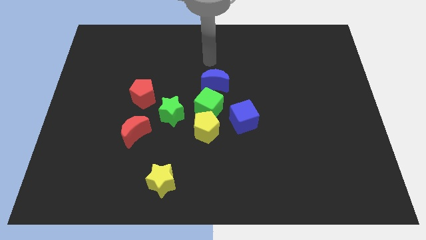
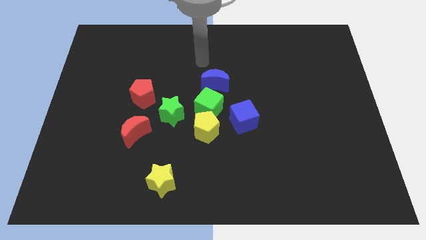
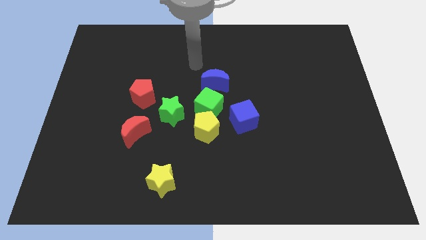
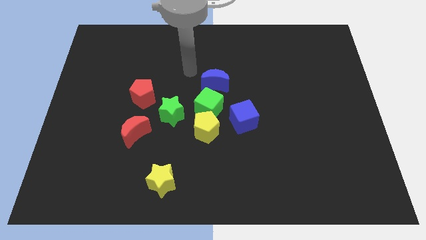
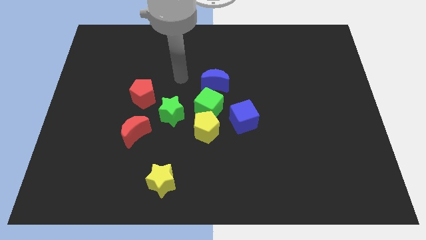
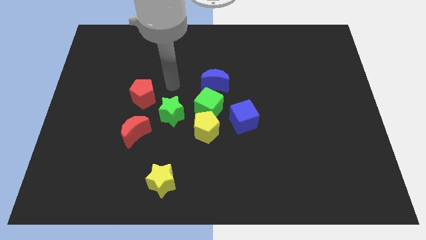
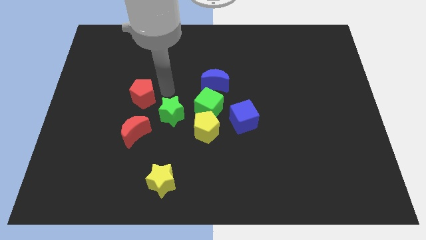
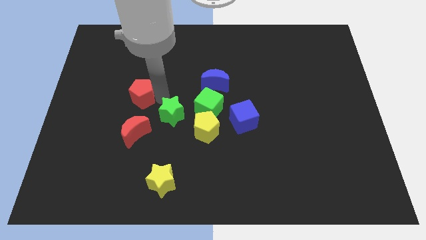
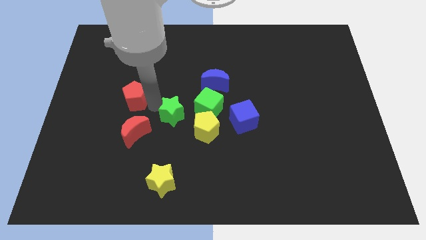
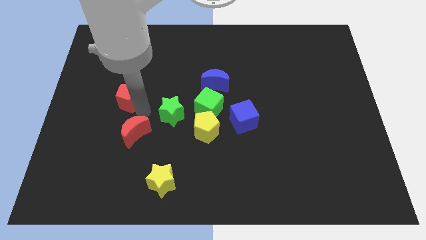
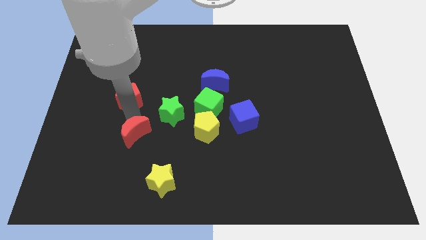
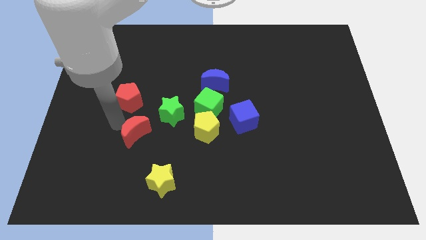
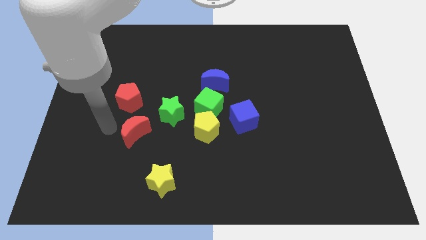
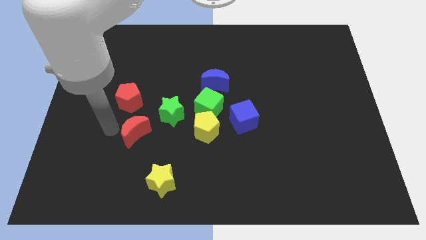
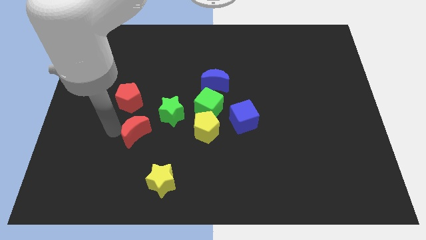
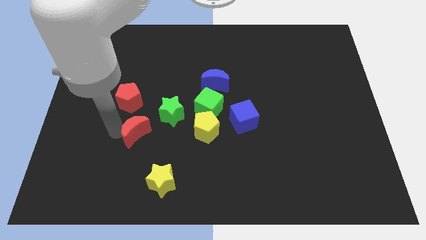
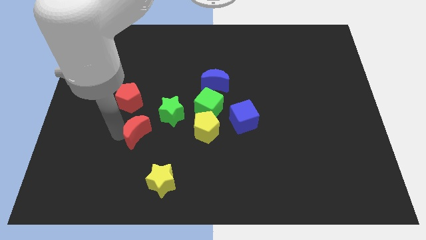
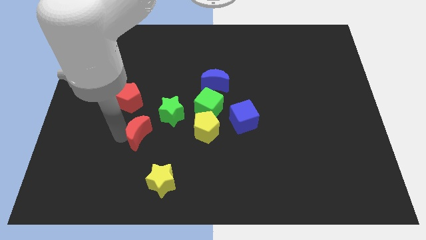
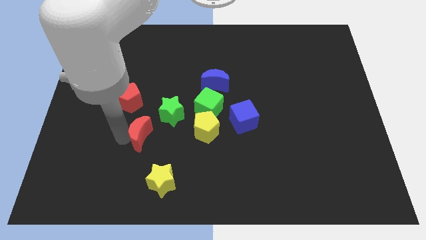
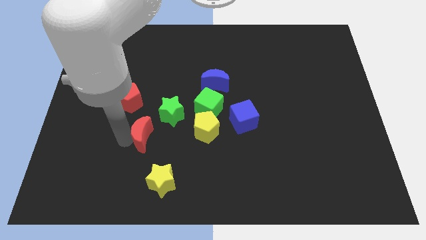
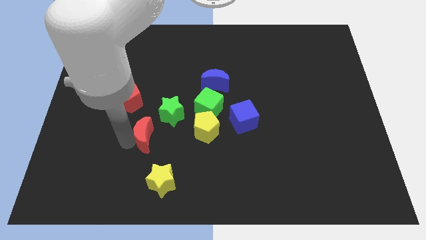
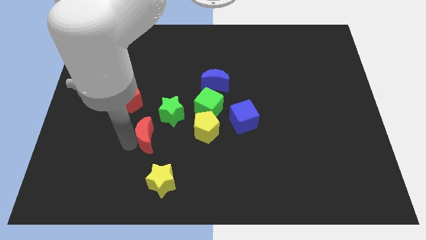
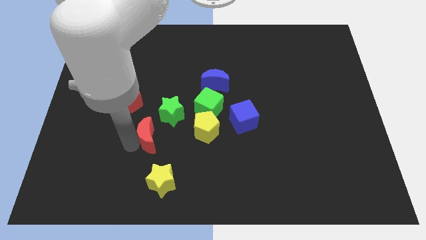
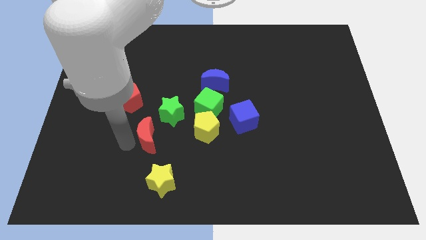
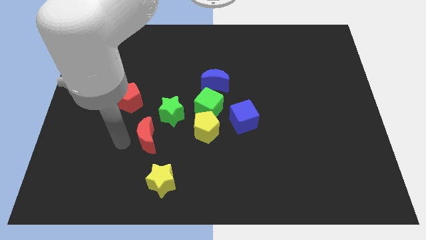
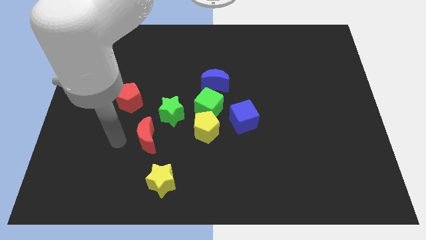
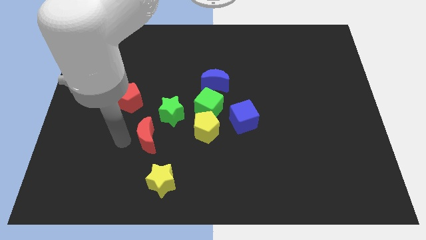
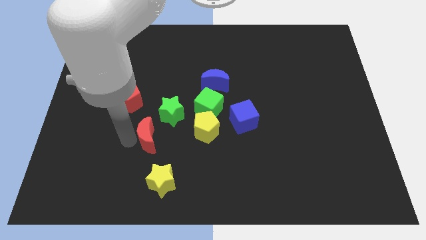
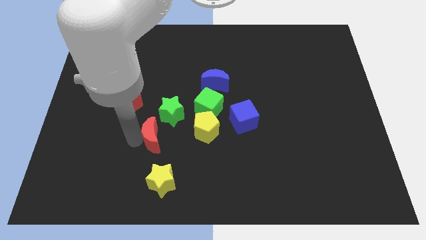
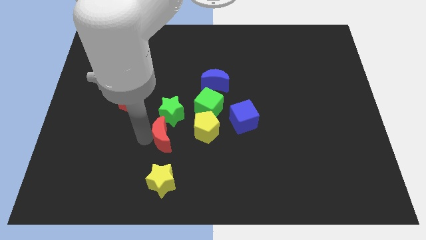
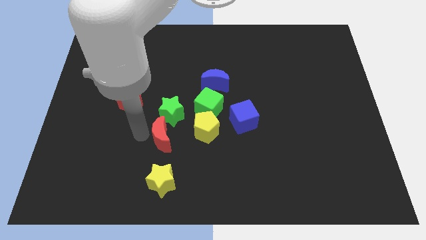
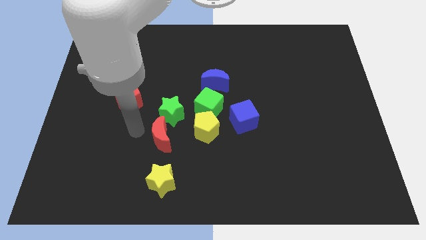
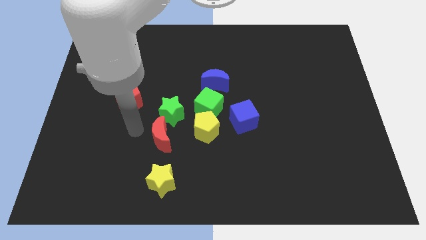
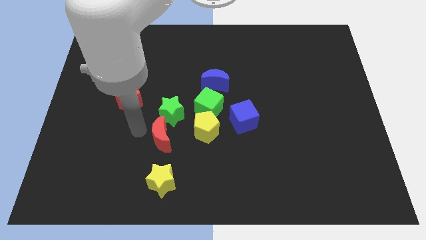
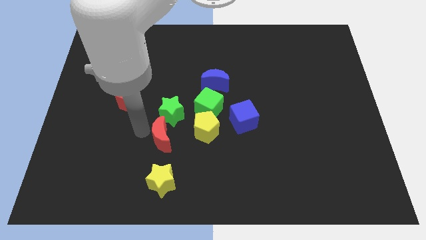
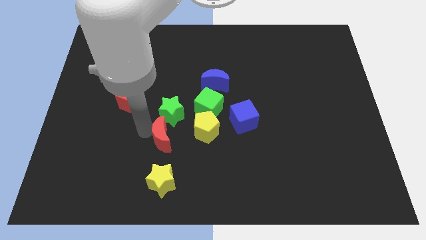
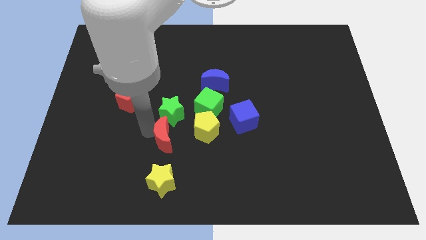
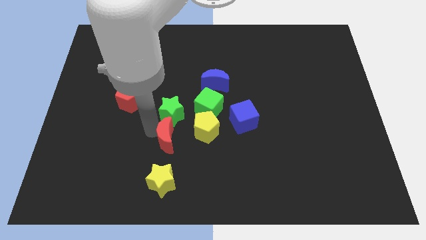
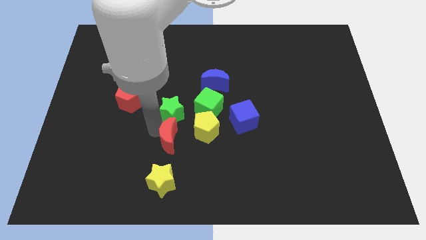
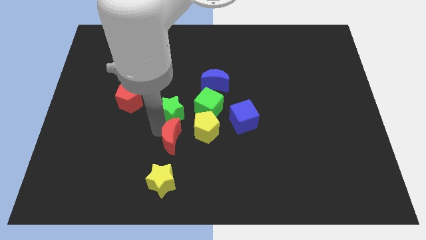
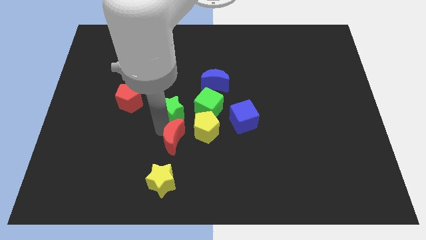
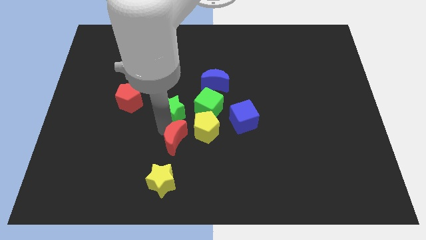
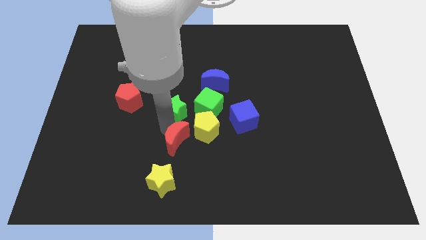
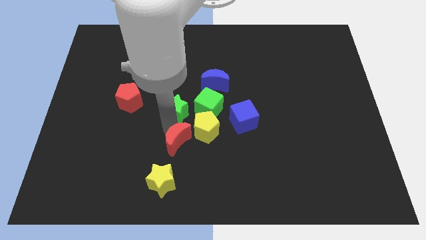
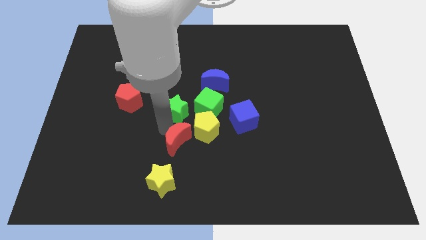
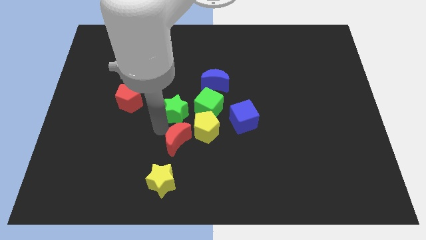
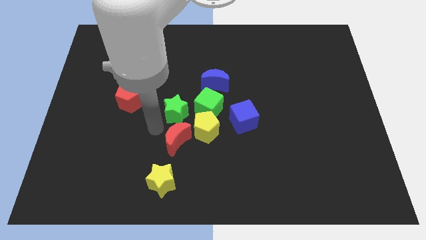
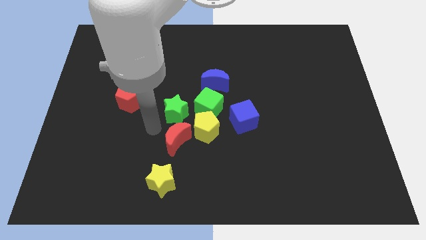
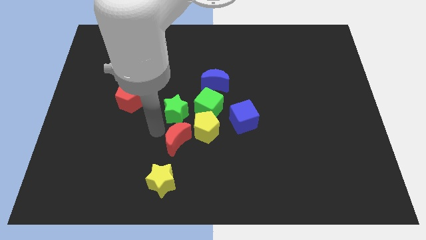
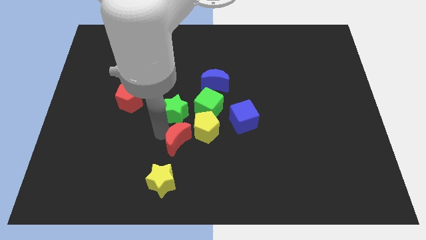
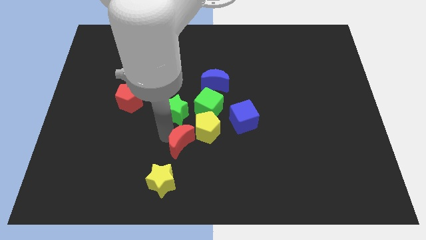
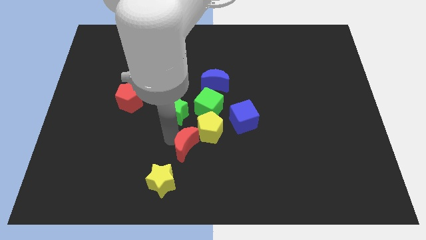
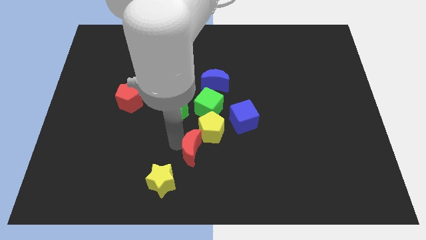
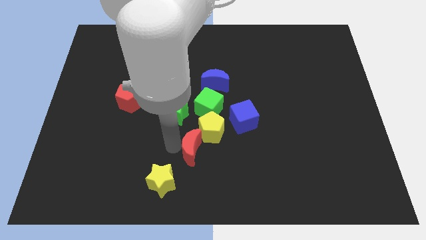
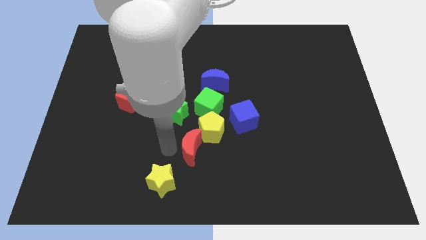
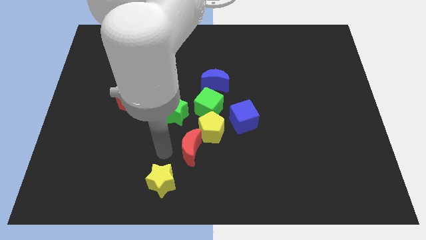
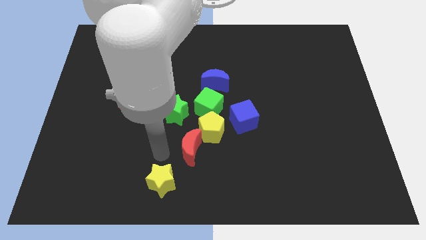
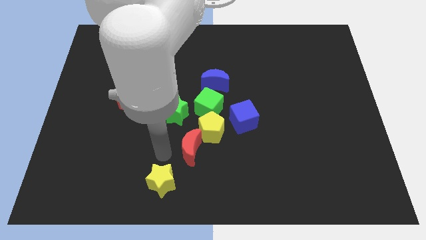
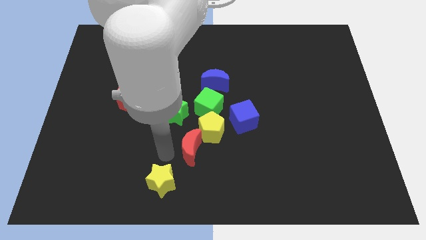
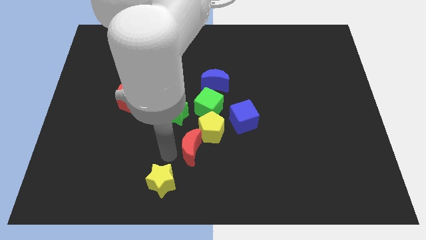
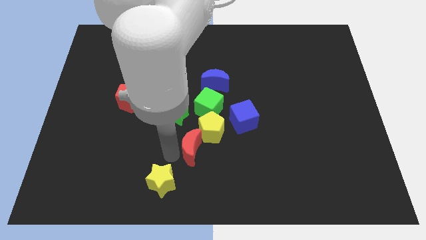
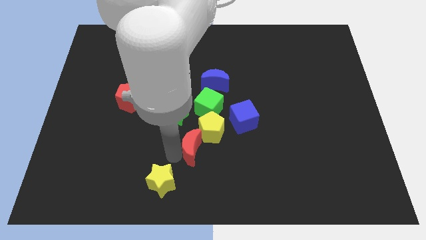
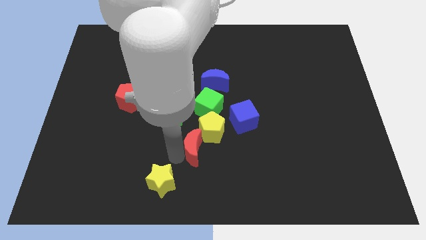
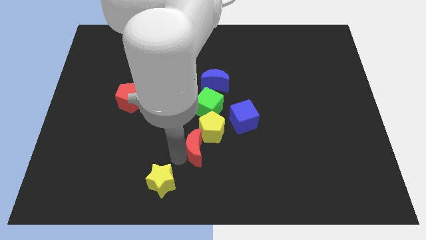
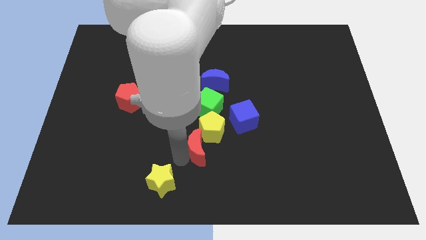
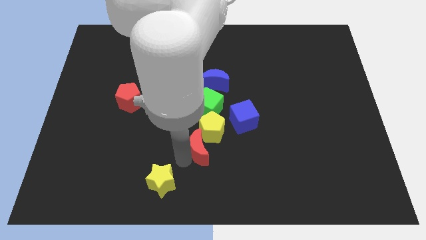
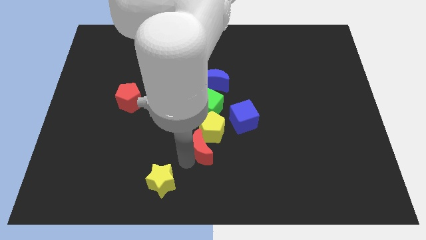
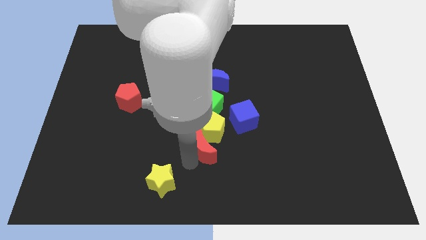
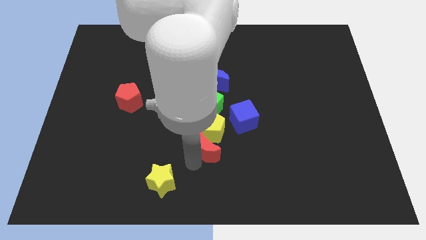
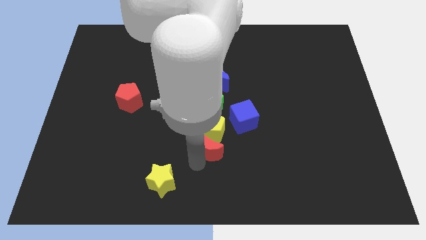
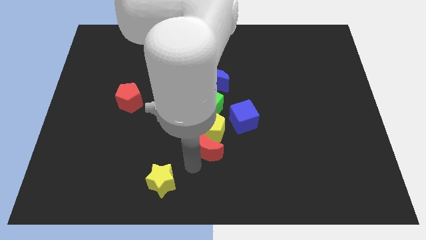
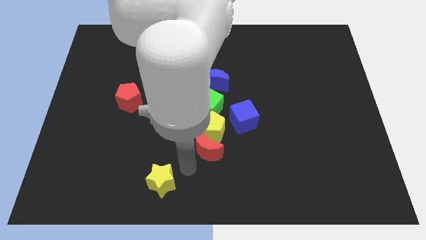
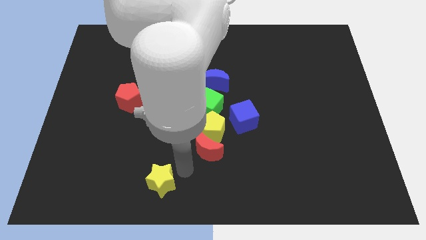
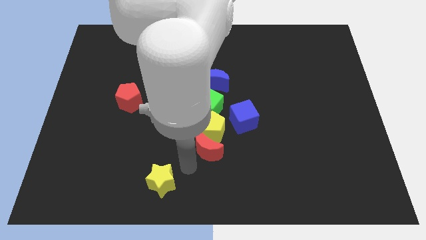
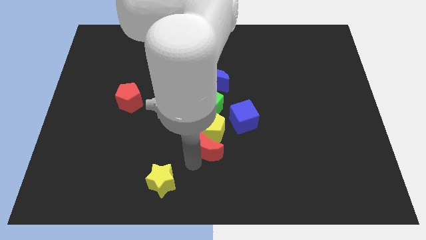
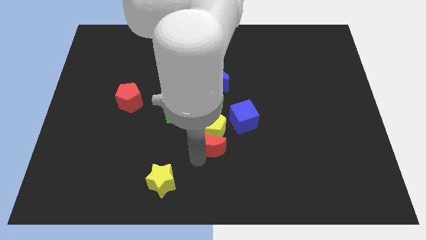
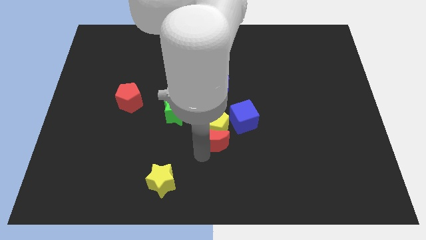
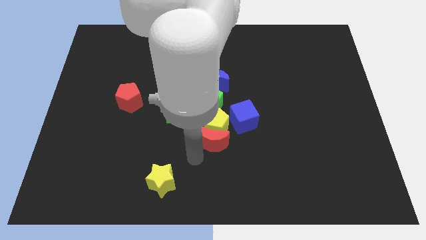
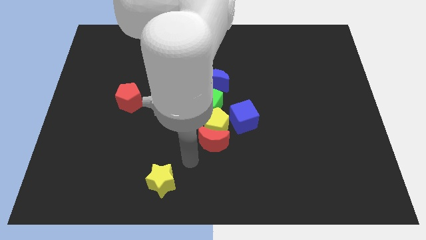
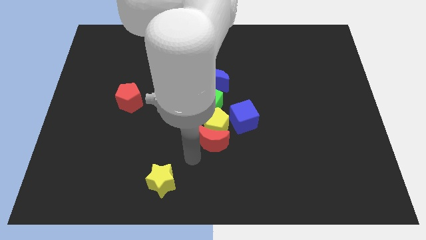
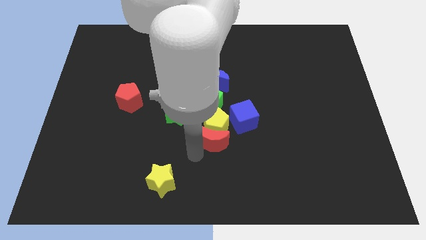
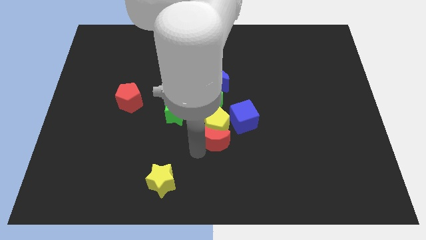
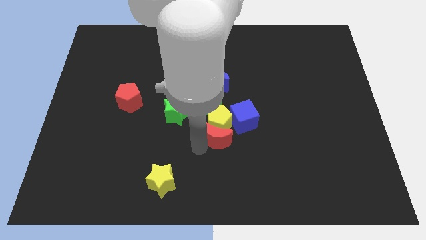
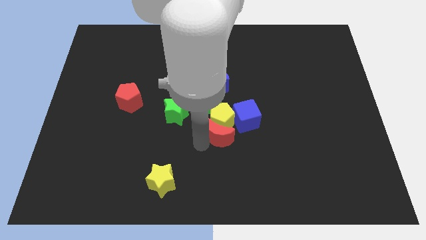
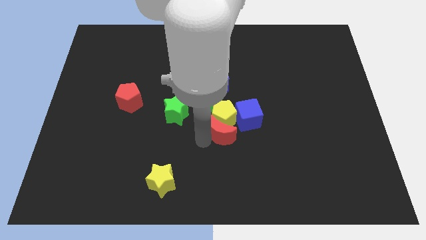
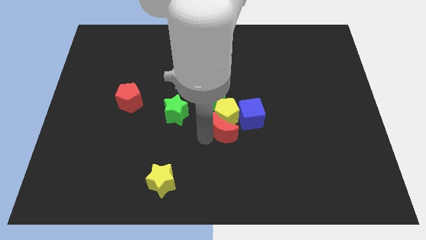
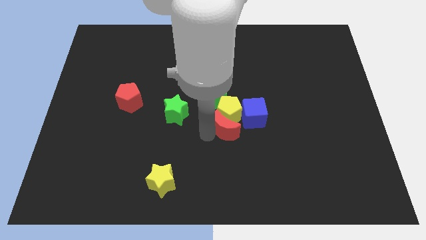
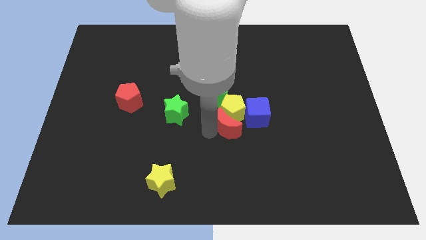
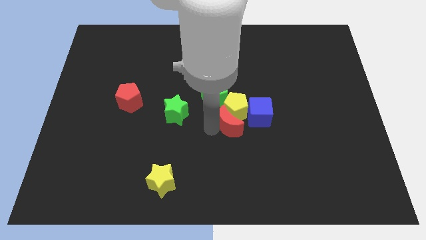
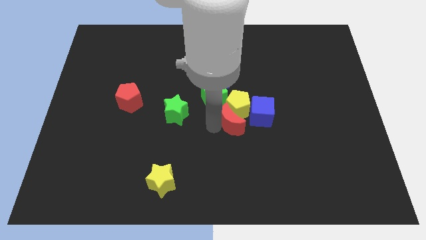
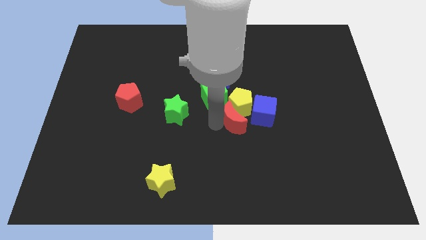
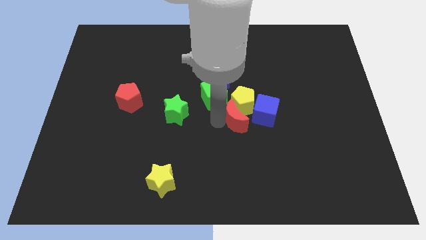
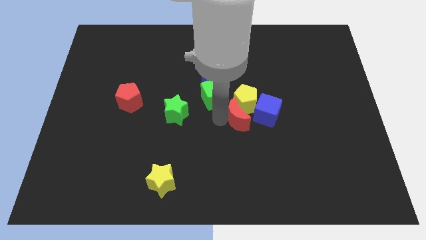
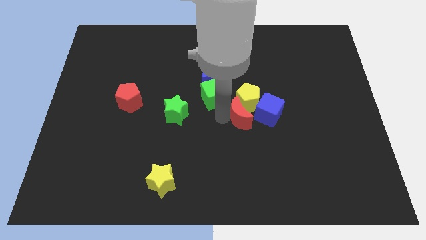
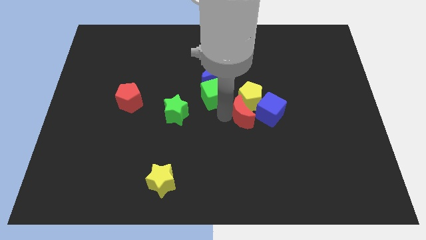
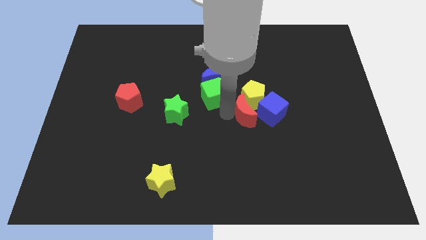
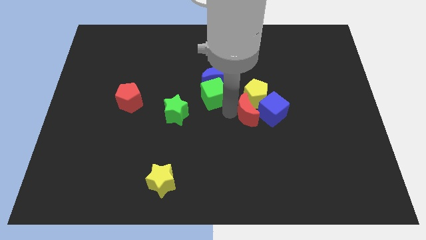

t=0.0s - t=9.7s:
push the red moon close to the blue cube
